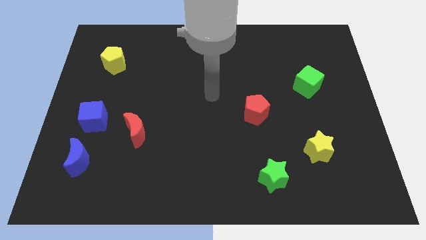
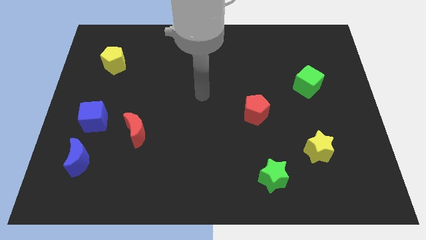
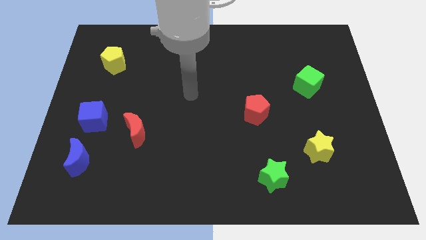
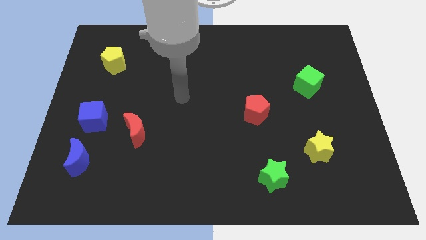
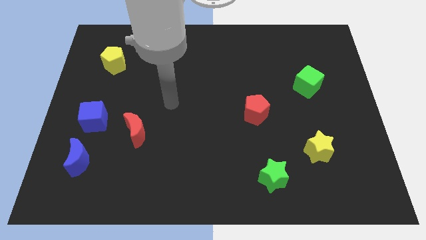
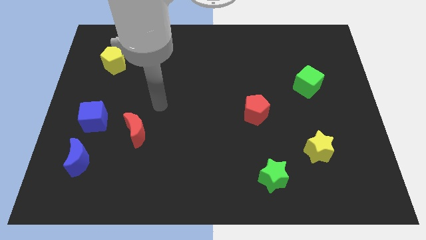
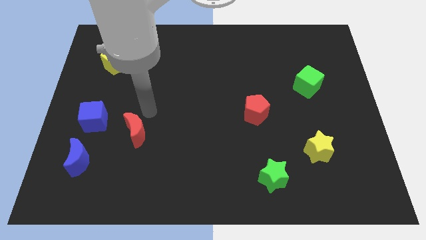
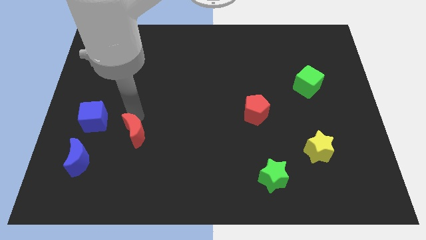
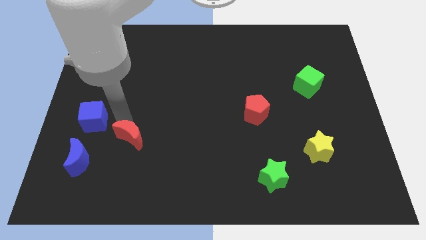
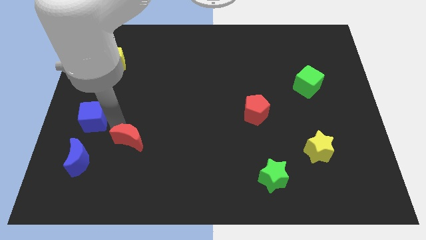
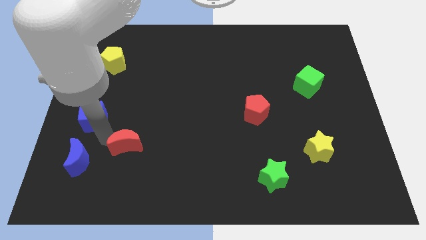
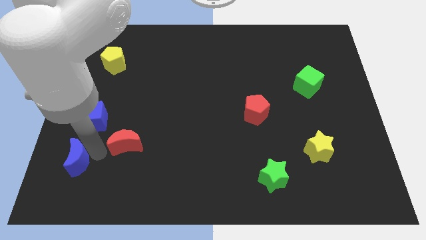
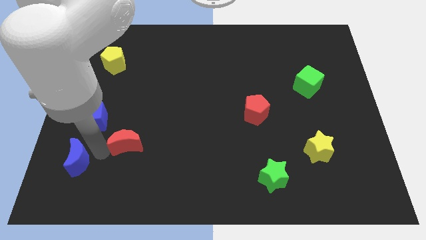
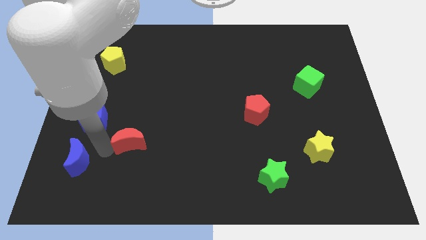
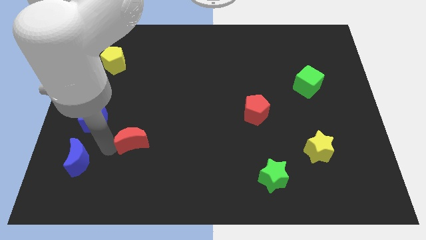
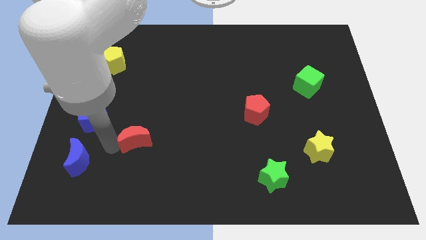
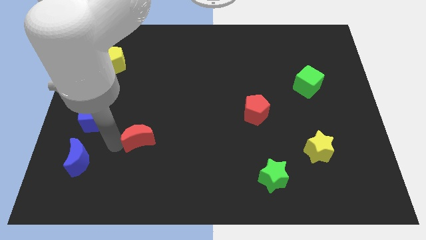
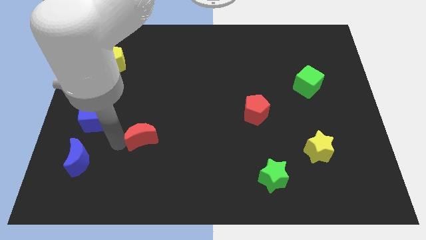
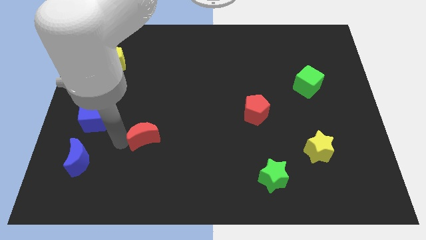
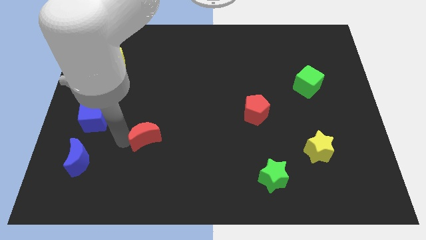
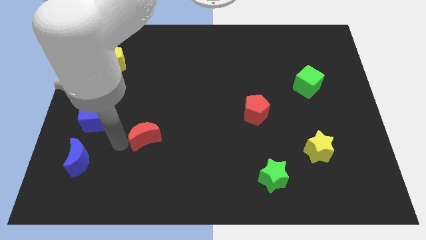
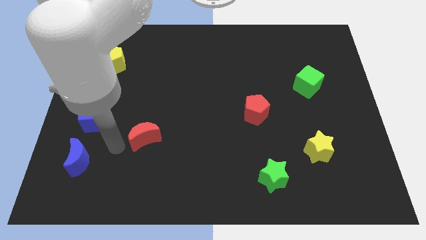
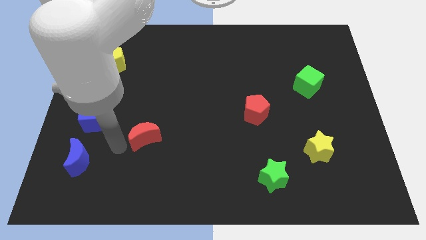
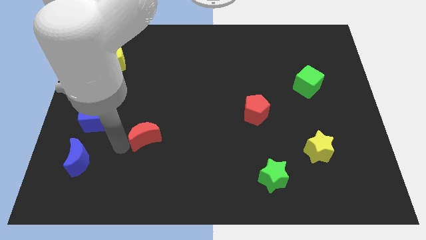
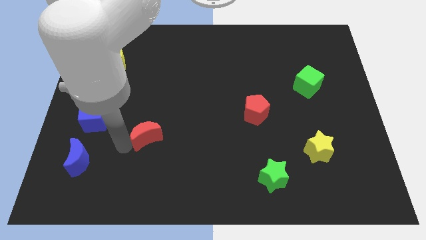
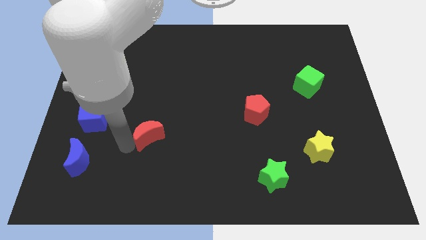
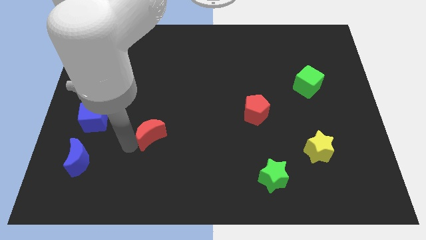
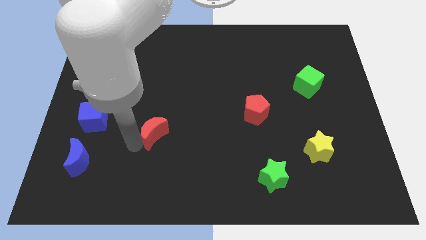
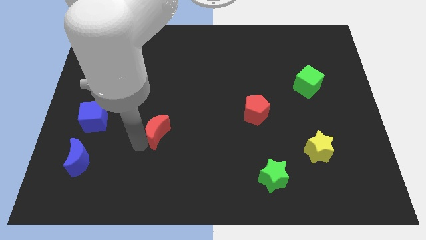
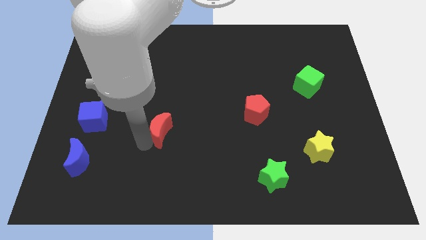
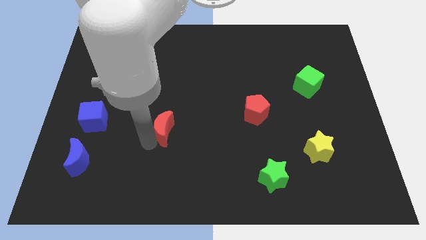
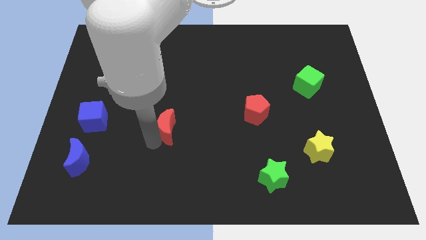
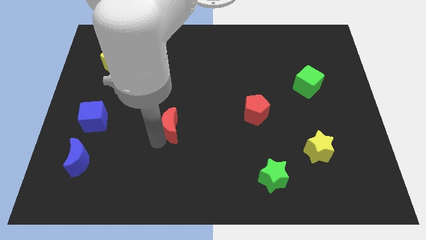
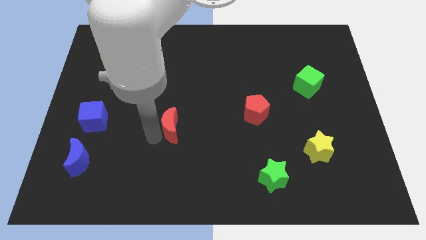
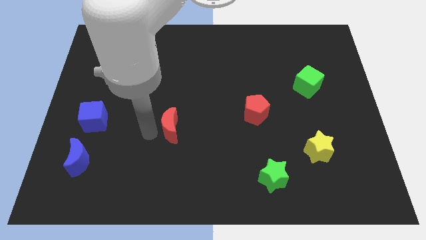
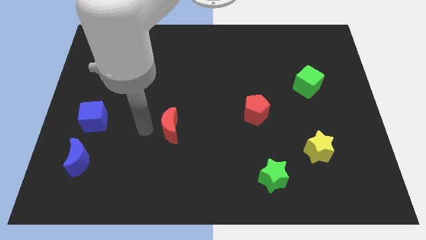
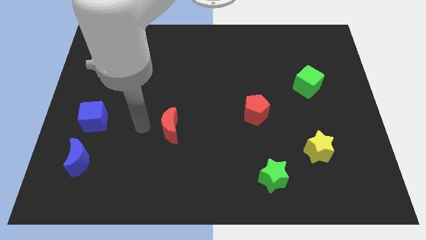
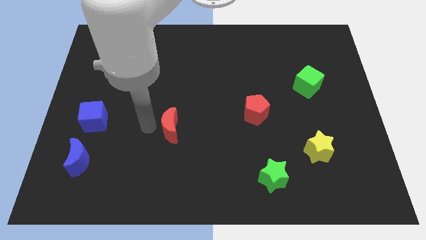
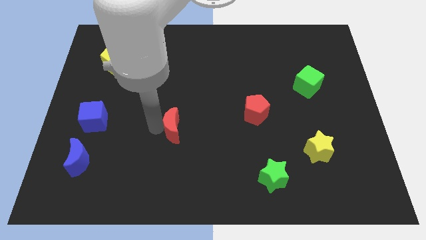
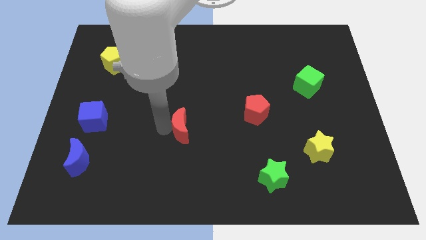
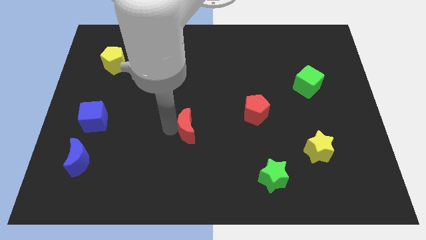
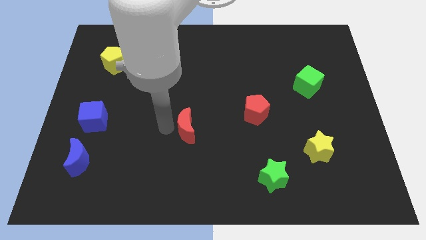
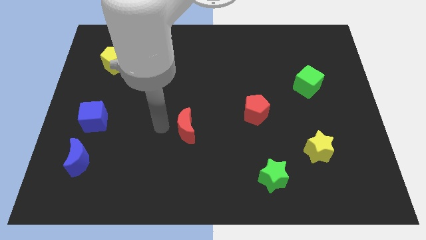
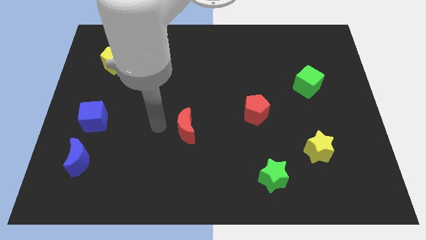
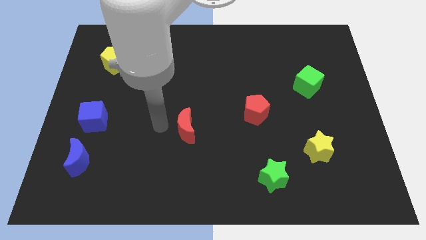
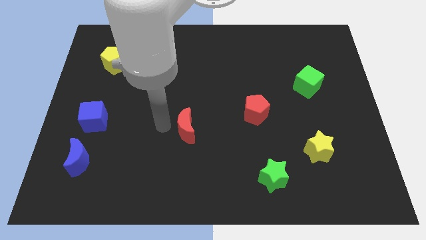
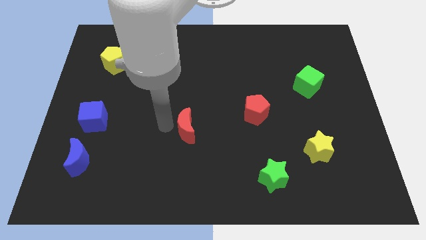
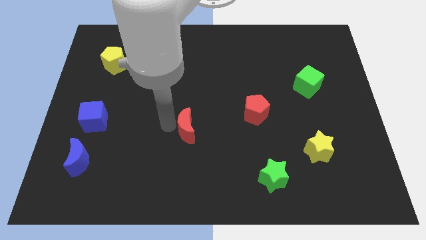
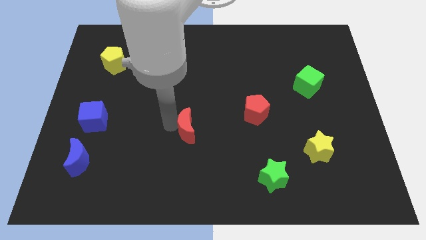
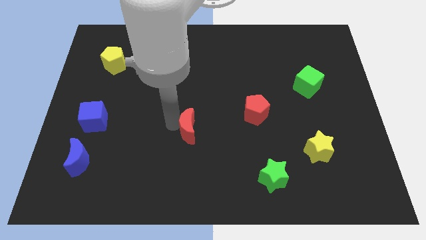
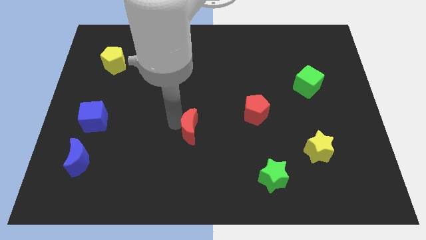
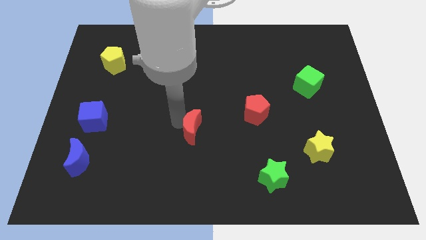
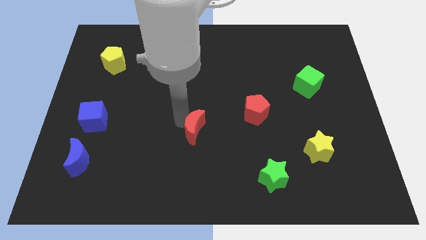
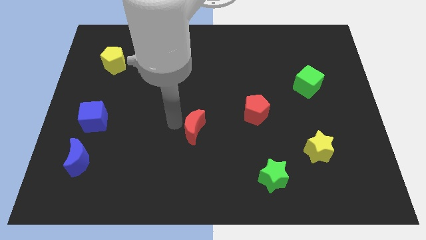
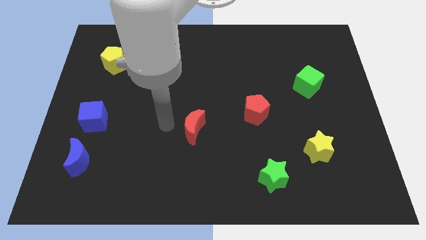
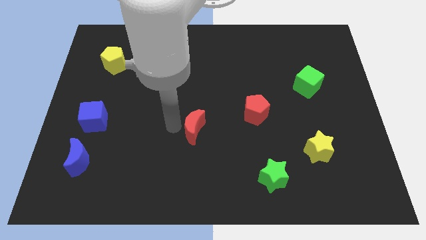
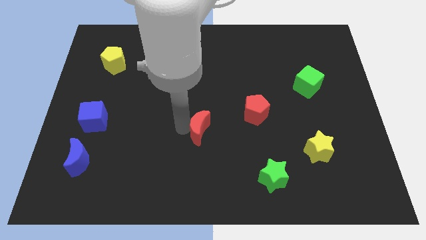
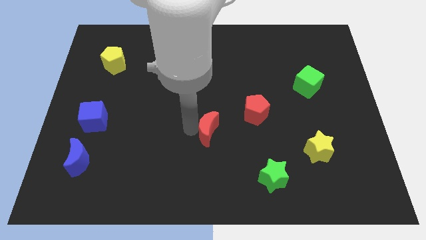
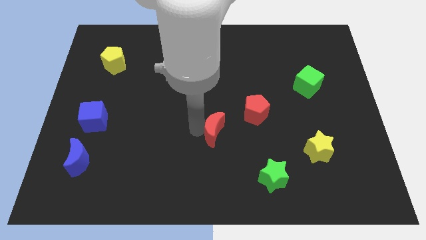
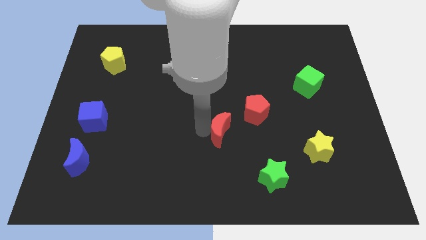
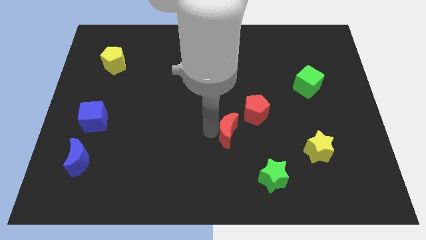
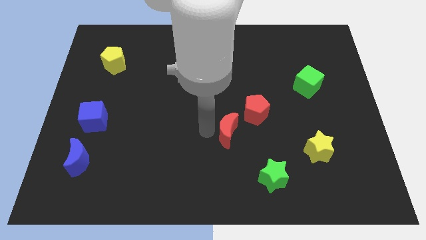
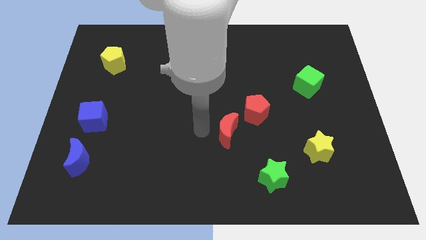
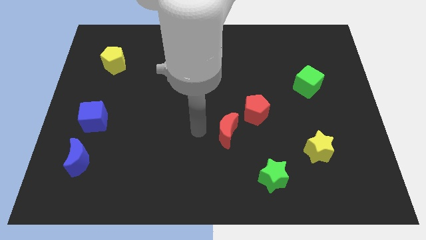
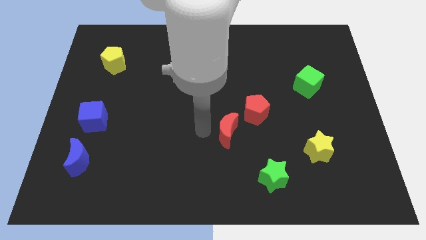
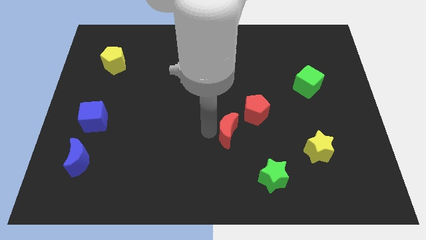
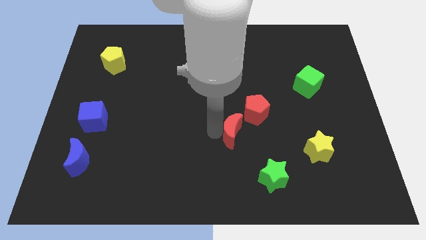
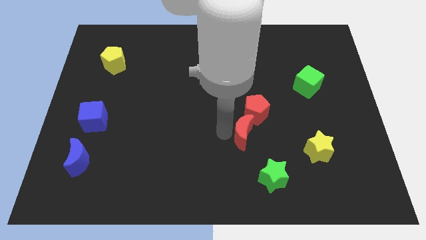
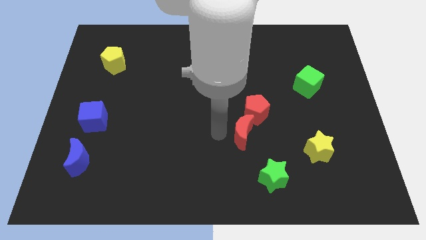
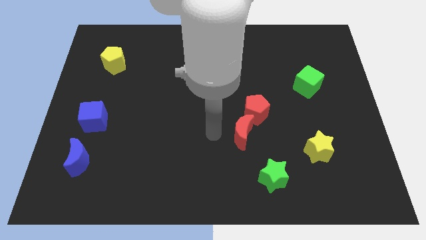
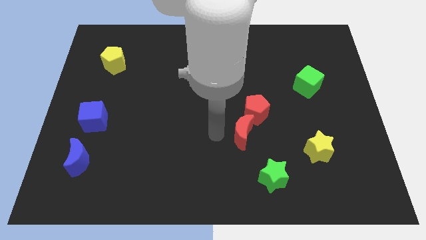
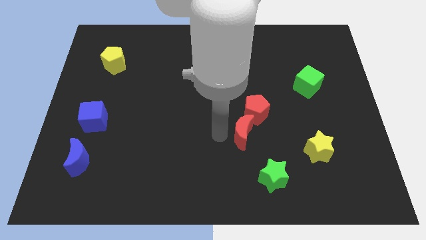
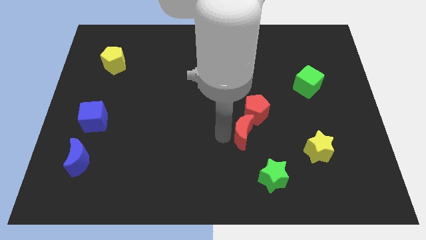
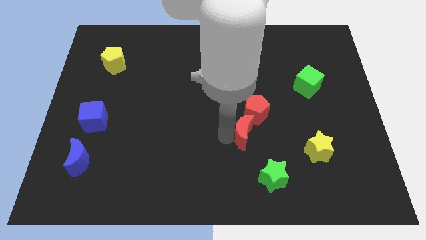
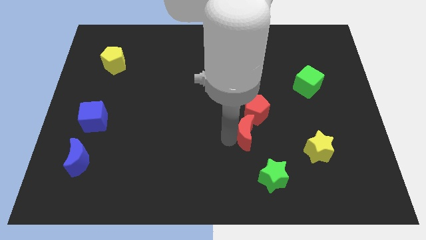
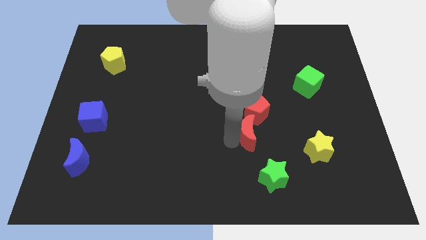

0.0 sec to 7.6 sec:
move the red moon above the green star
